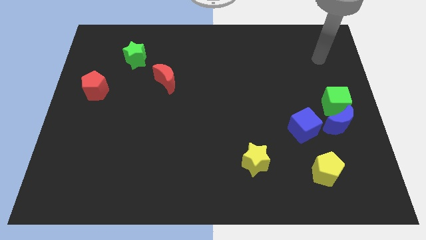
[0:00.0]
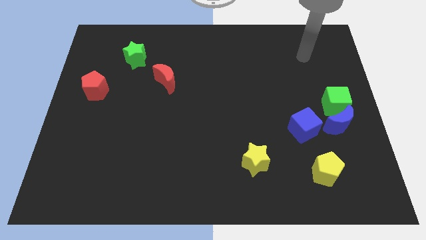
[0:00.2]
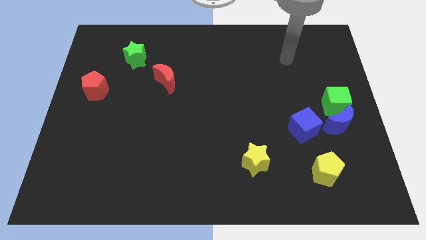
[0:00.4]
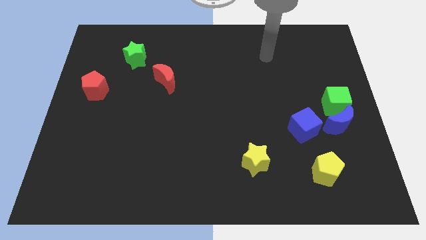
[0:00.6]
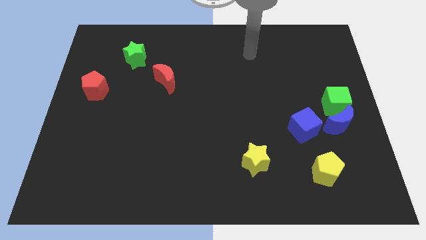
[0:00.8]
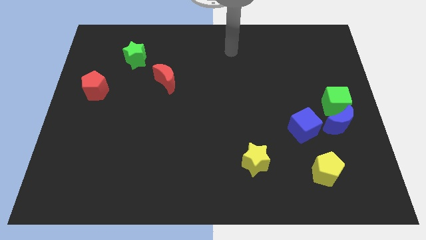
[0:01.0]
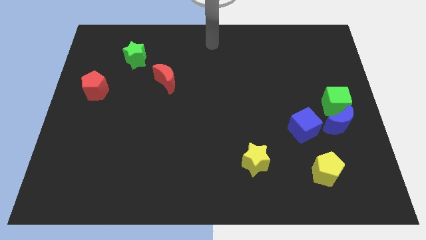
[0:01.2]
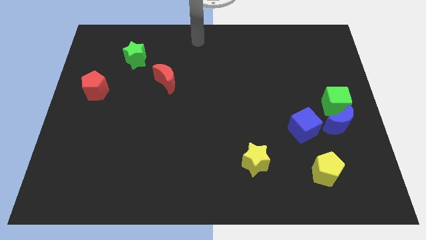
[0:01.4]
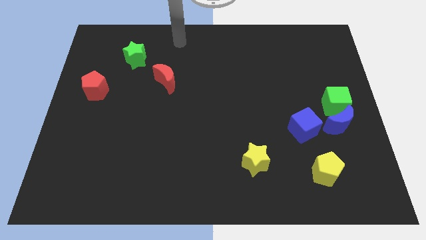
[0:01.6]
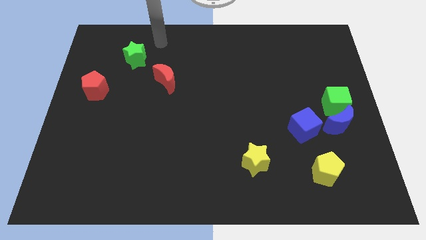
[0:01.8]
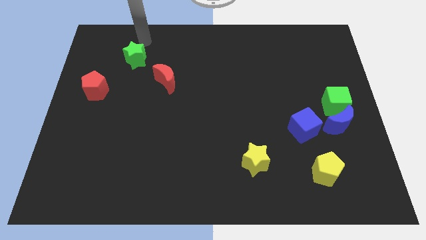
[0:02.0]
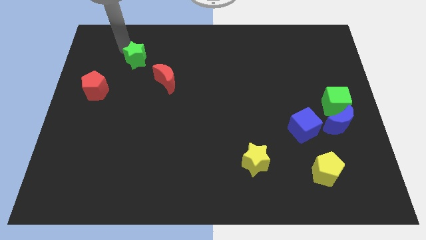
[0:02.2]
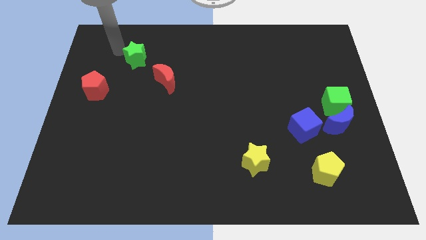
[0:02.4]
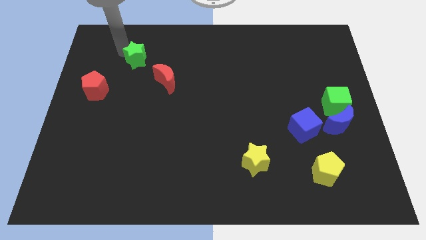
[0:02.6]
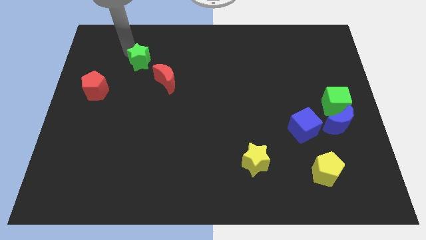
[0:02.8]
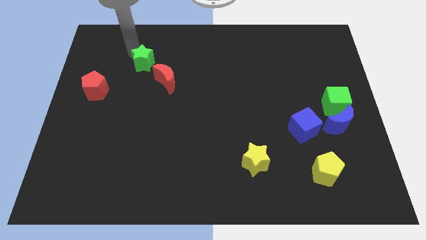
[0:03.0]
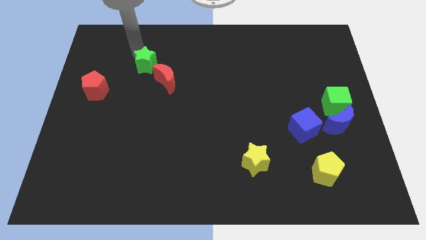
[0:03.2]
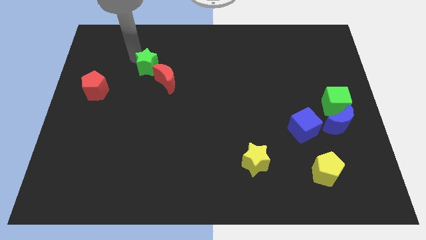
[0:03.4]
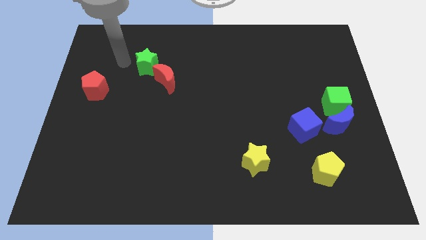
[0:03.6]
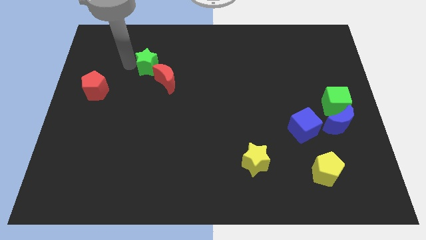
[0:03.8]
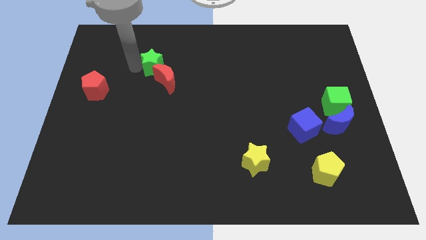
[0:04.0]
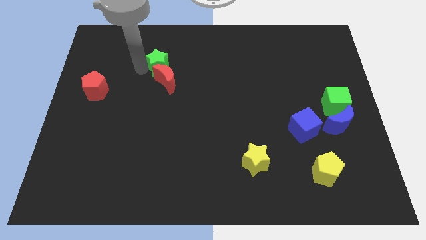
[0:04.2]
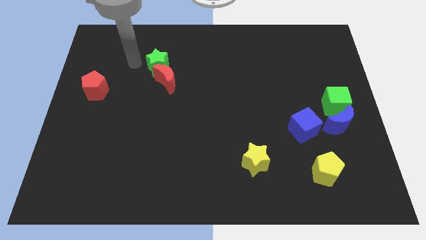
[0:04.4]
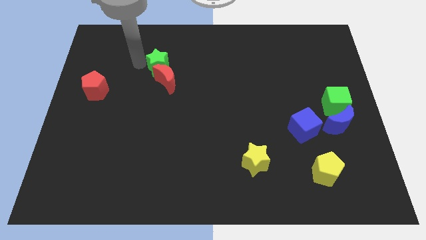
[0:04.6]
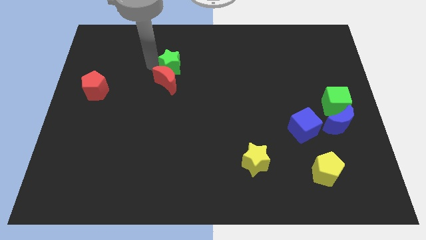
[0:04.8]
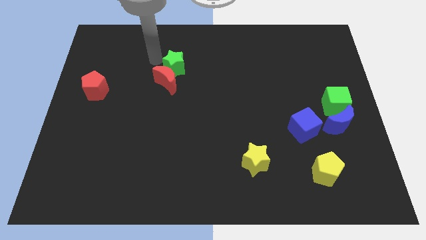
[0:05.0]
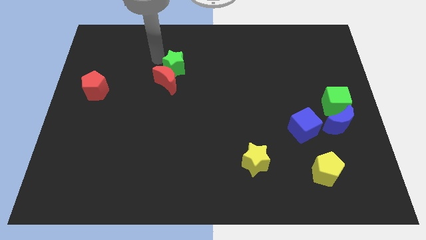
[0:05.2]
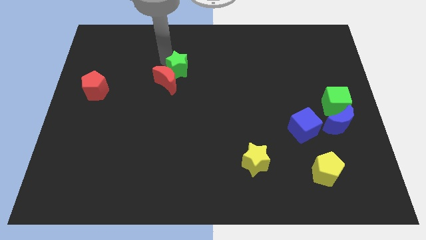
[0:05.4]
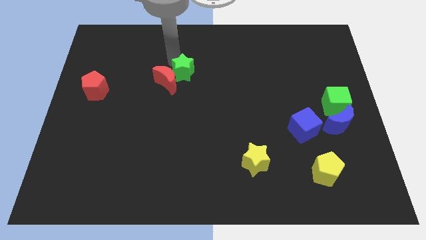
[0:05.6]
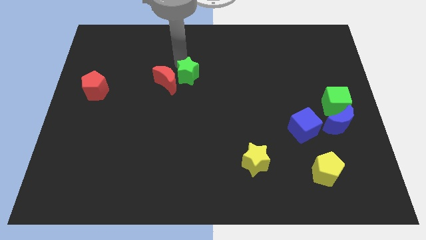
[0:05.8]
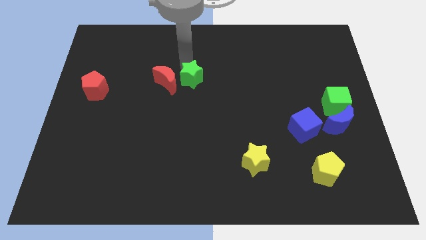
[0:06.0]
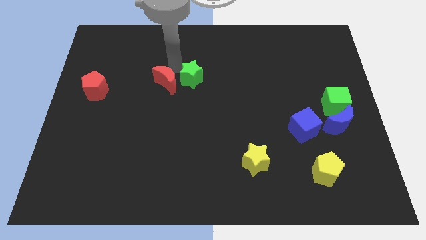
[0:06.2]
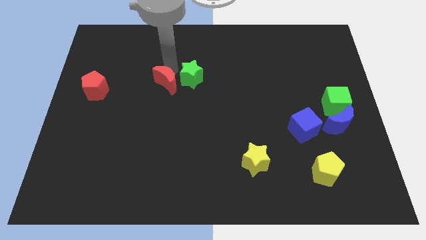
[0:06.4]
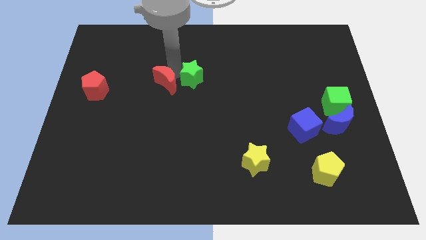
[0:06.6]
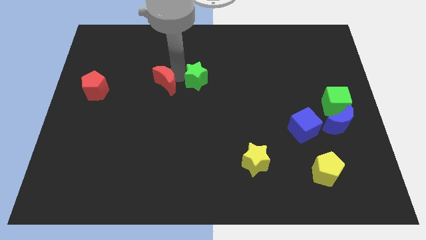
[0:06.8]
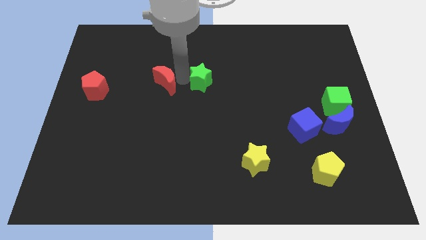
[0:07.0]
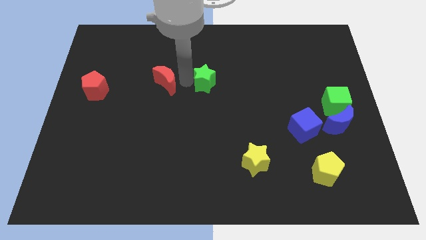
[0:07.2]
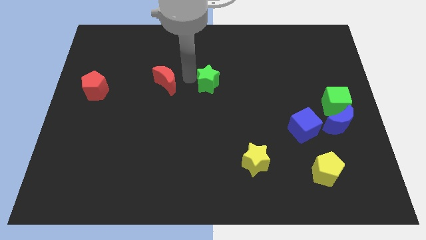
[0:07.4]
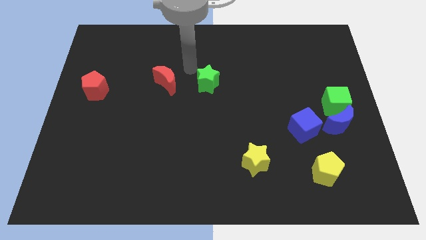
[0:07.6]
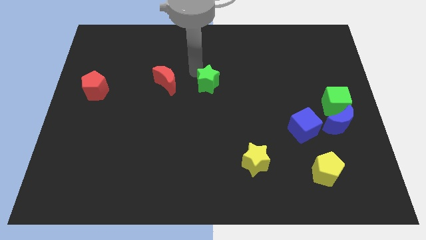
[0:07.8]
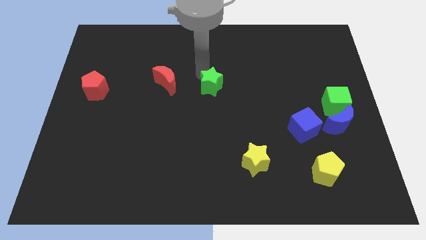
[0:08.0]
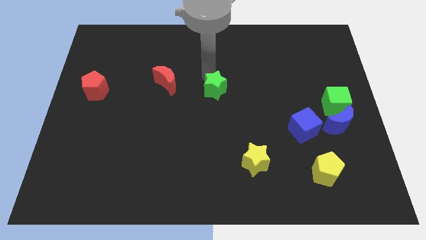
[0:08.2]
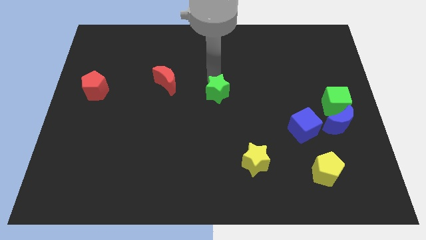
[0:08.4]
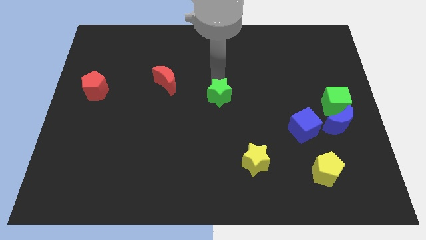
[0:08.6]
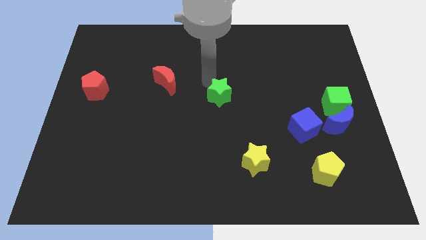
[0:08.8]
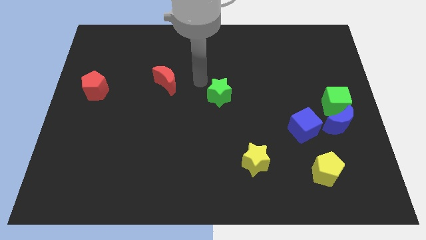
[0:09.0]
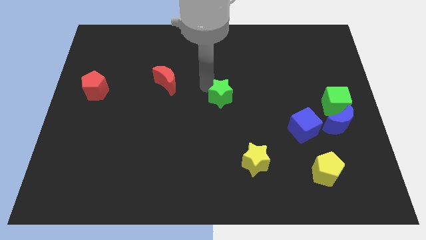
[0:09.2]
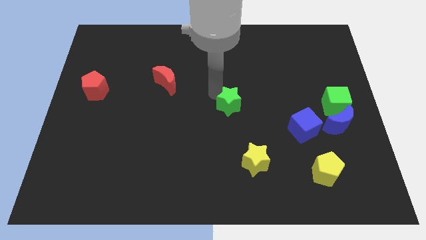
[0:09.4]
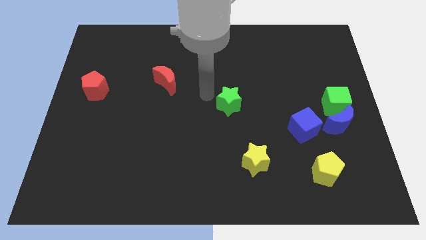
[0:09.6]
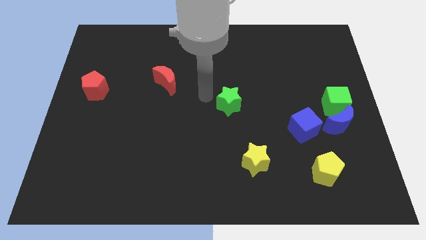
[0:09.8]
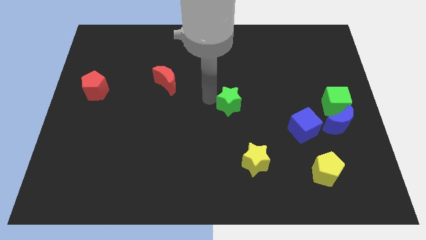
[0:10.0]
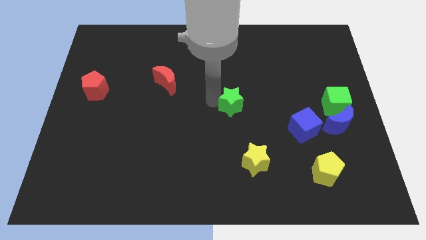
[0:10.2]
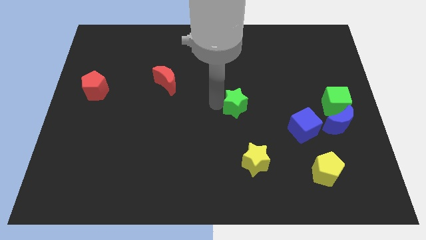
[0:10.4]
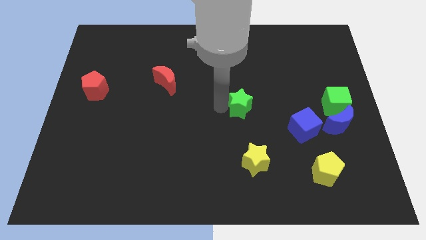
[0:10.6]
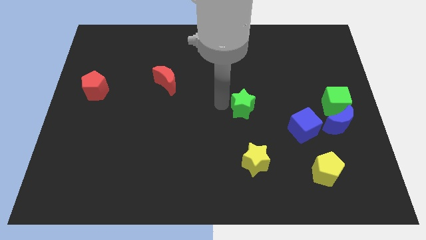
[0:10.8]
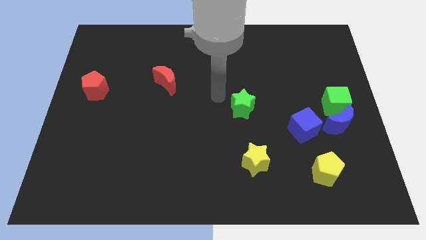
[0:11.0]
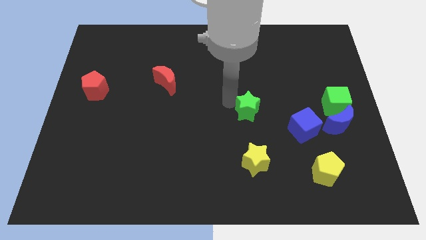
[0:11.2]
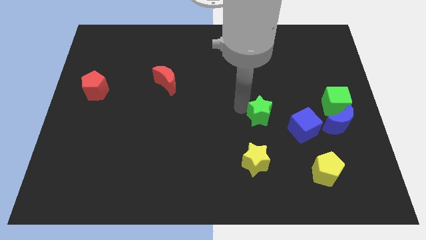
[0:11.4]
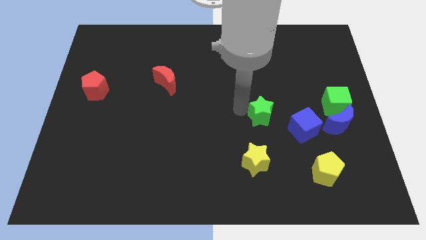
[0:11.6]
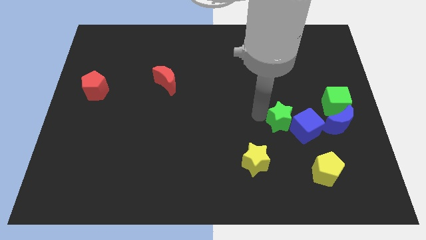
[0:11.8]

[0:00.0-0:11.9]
put the green star towards the blue cube

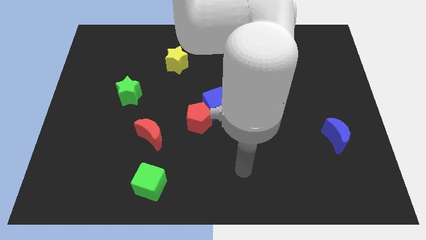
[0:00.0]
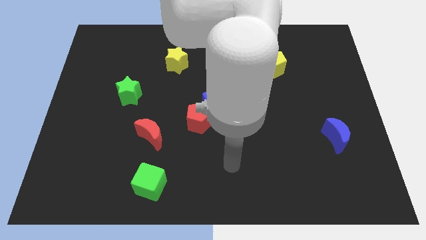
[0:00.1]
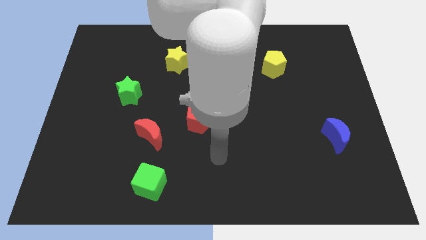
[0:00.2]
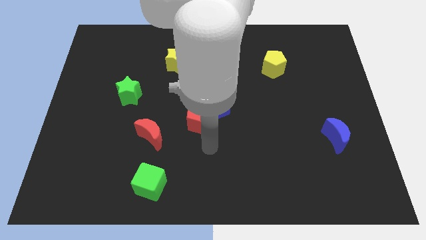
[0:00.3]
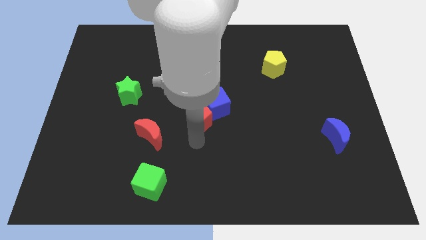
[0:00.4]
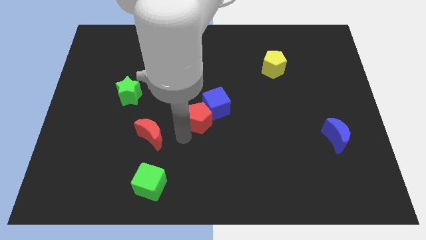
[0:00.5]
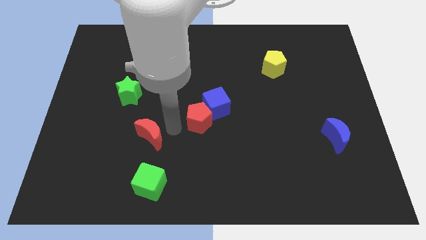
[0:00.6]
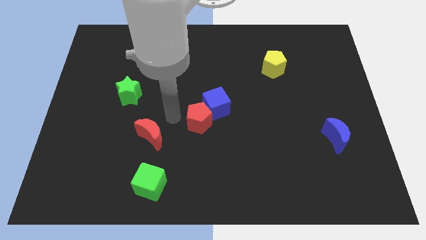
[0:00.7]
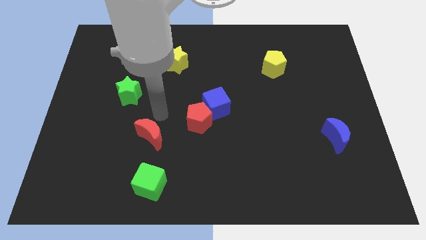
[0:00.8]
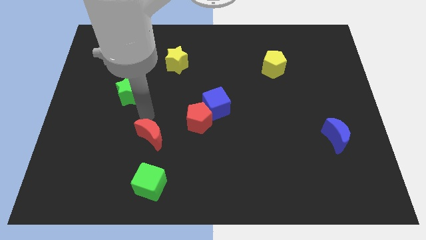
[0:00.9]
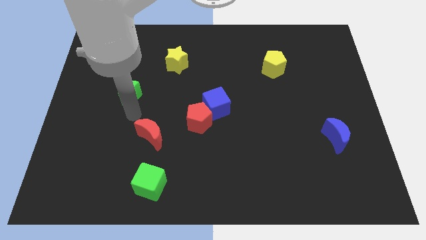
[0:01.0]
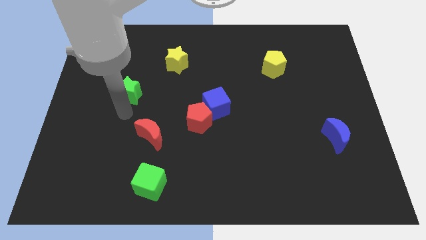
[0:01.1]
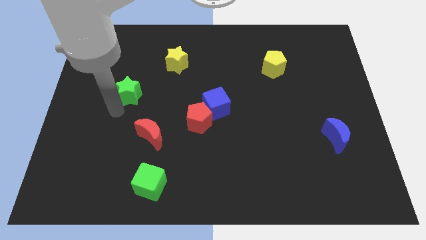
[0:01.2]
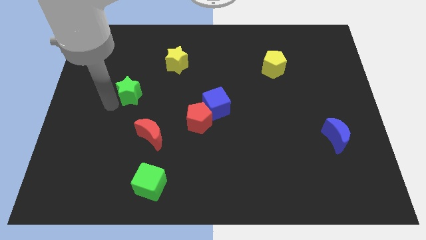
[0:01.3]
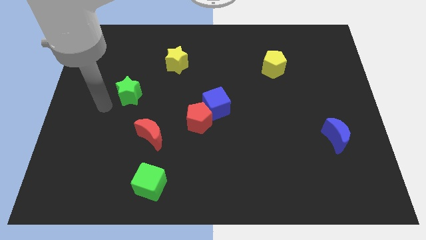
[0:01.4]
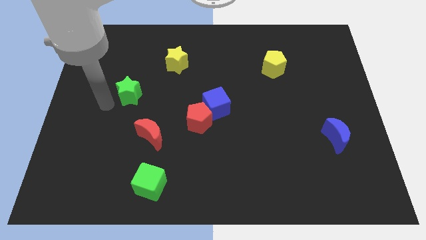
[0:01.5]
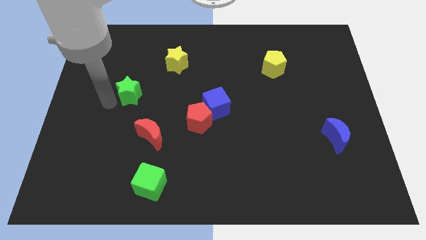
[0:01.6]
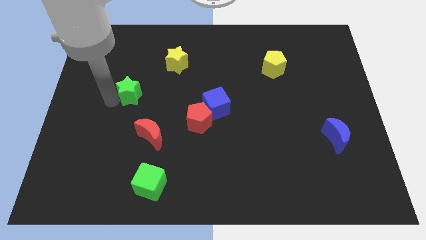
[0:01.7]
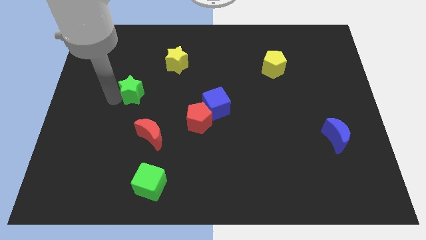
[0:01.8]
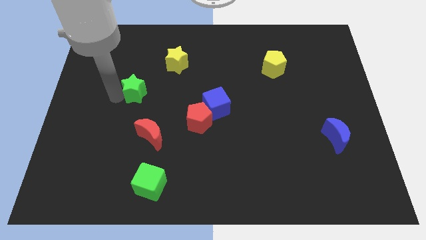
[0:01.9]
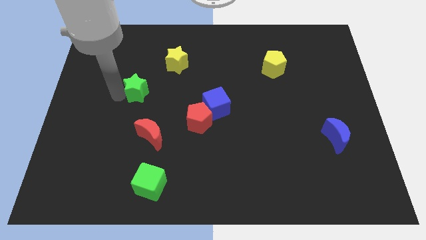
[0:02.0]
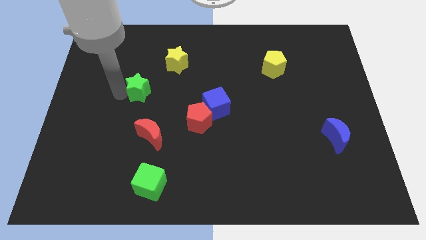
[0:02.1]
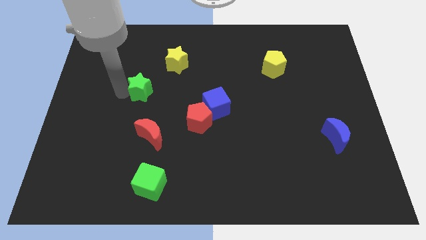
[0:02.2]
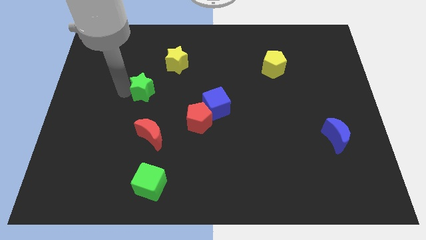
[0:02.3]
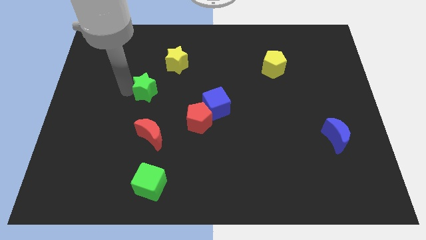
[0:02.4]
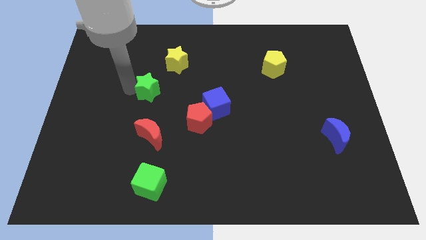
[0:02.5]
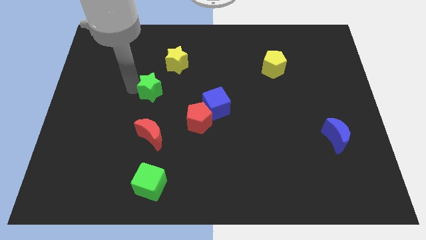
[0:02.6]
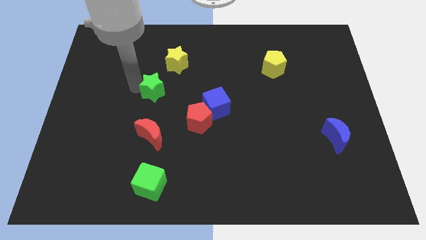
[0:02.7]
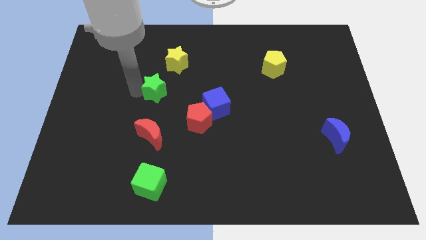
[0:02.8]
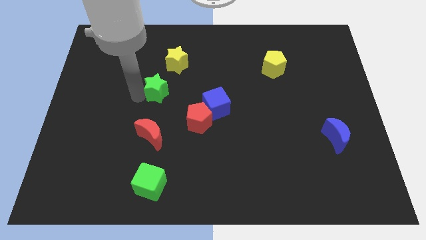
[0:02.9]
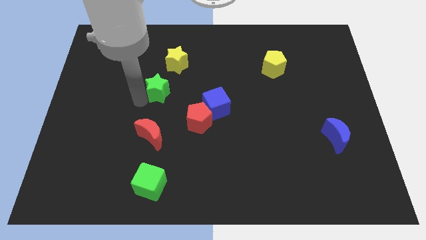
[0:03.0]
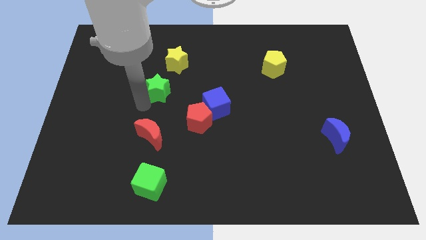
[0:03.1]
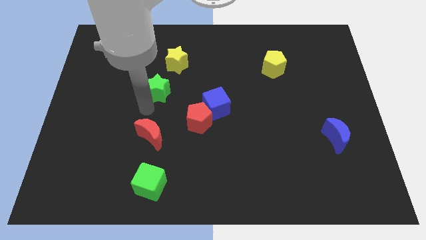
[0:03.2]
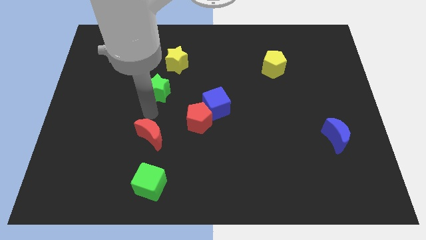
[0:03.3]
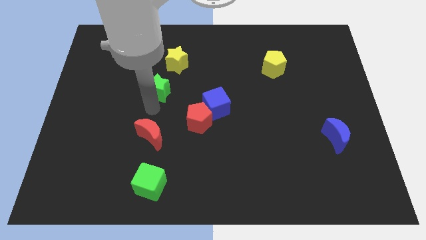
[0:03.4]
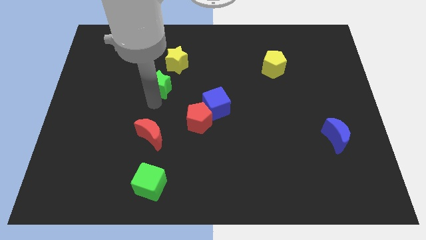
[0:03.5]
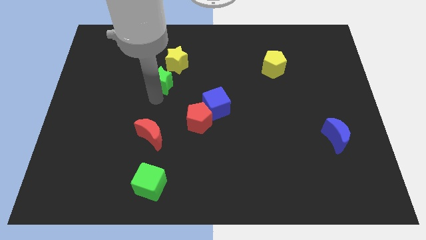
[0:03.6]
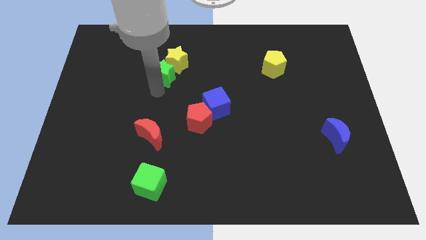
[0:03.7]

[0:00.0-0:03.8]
move the green star to the yellow star
